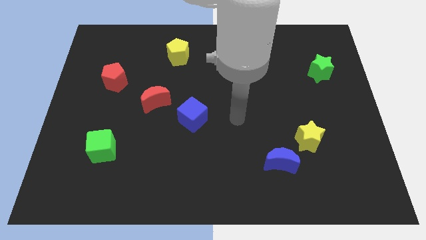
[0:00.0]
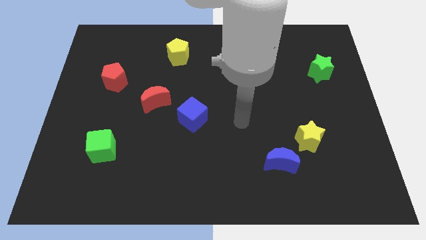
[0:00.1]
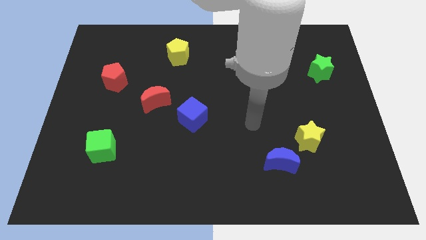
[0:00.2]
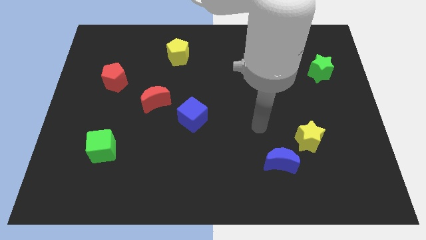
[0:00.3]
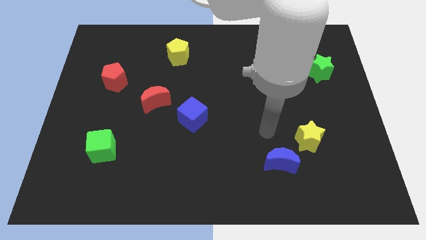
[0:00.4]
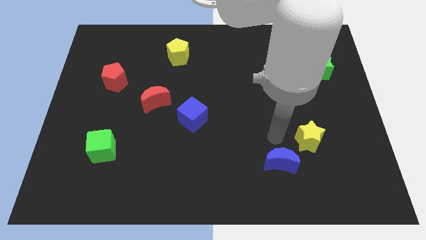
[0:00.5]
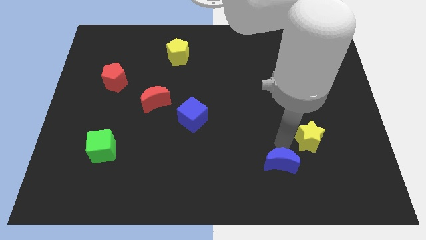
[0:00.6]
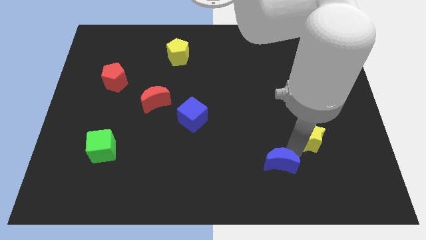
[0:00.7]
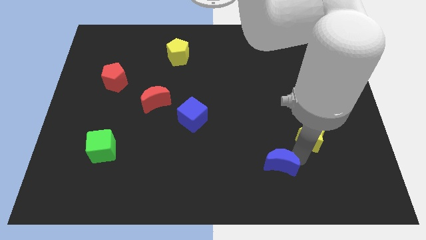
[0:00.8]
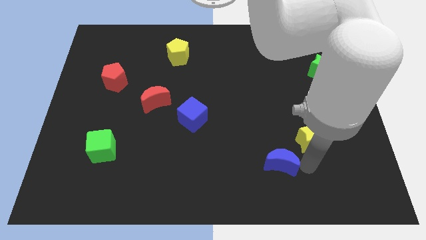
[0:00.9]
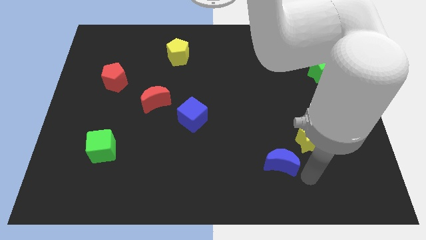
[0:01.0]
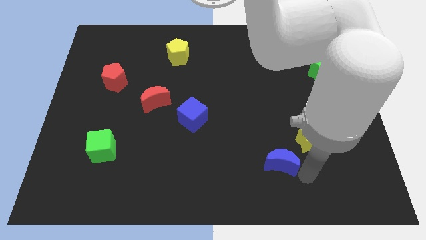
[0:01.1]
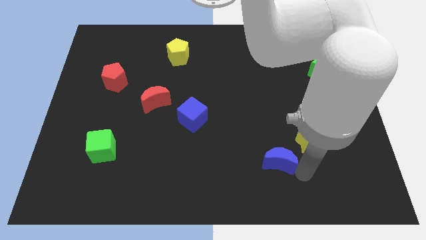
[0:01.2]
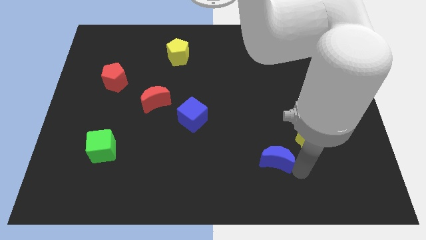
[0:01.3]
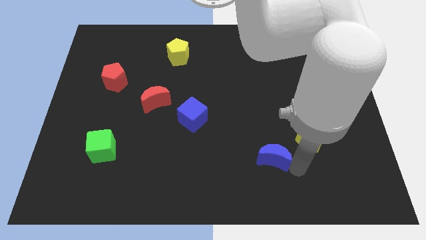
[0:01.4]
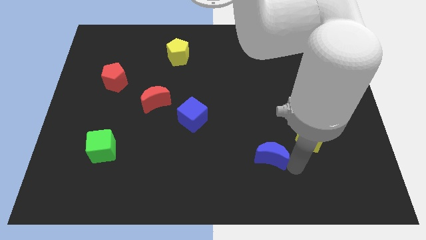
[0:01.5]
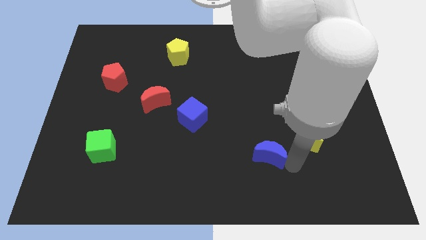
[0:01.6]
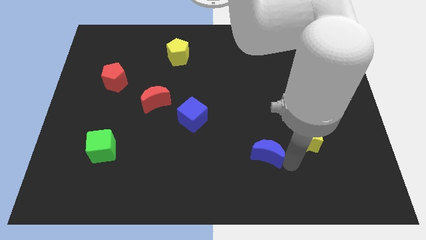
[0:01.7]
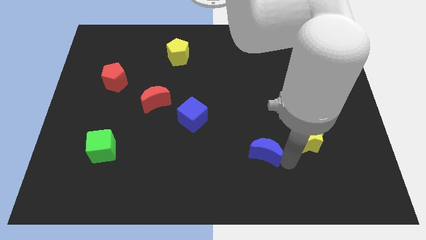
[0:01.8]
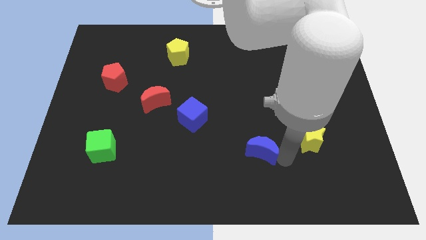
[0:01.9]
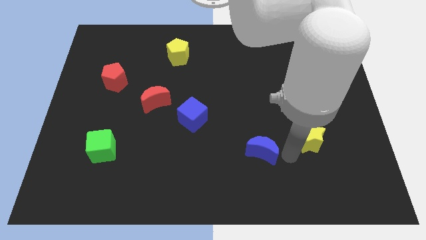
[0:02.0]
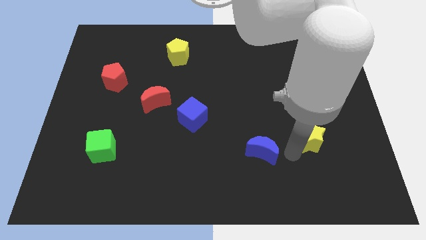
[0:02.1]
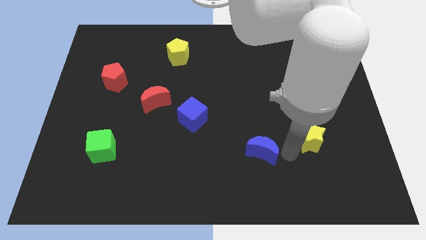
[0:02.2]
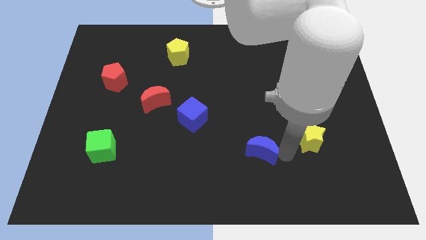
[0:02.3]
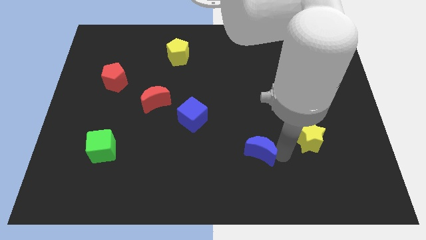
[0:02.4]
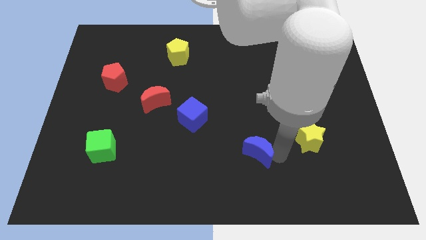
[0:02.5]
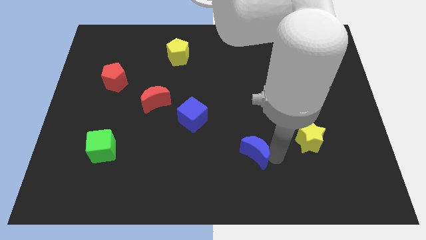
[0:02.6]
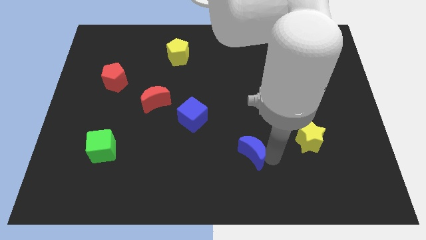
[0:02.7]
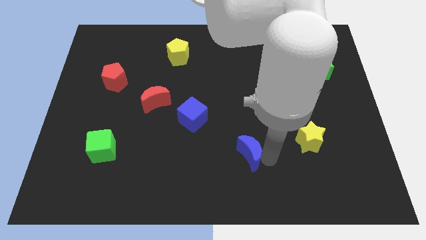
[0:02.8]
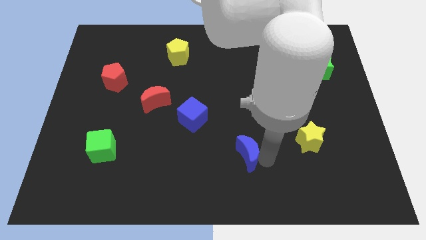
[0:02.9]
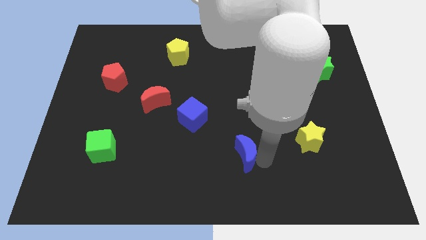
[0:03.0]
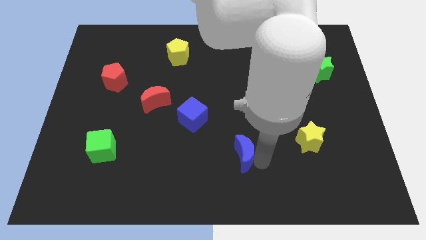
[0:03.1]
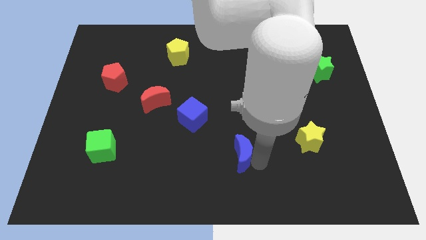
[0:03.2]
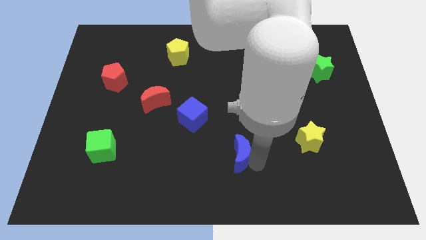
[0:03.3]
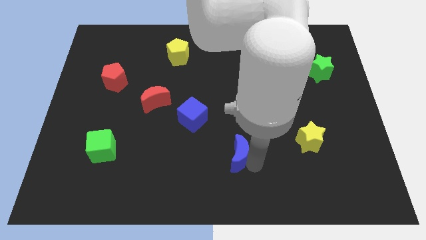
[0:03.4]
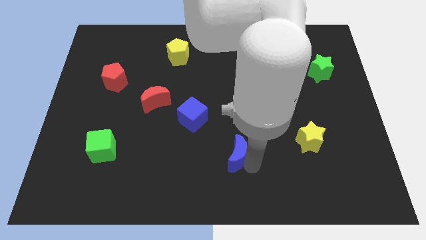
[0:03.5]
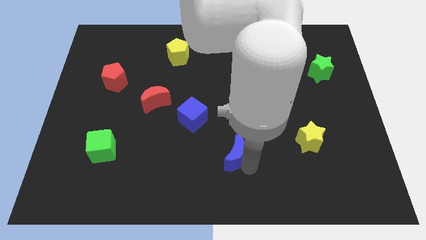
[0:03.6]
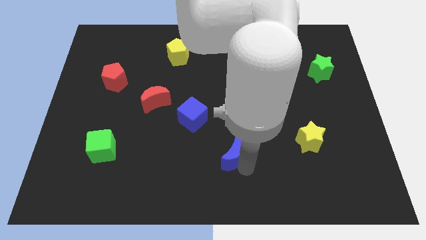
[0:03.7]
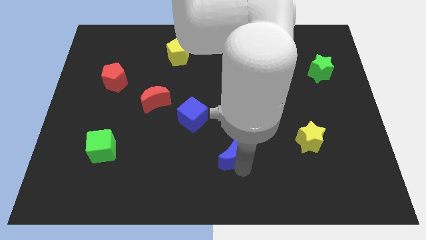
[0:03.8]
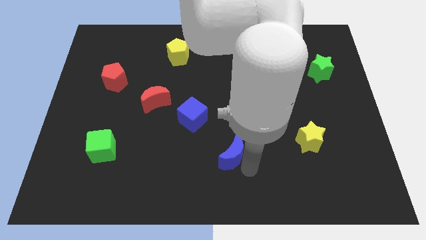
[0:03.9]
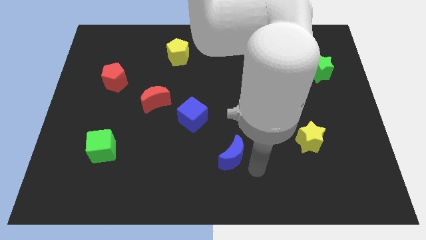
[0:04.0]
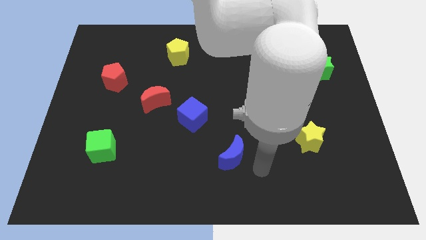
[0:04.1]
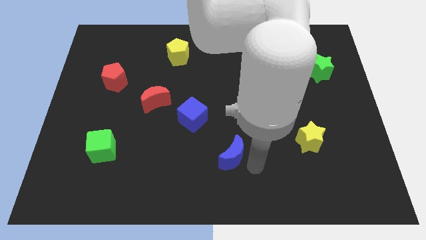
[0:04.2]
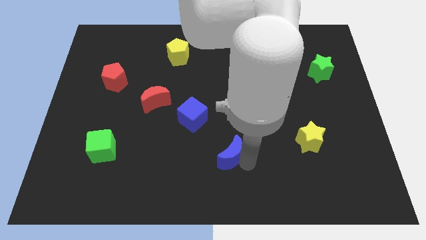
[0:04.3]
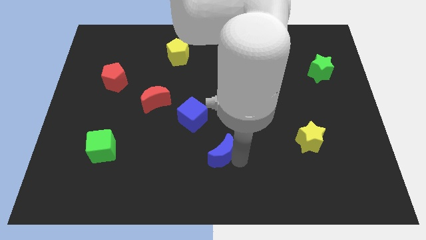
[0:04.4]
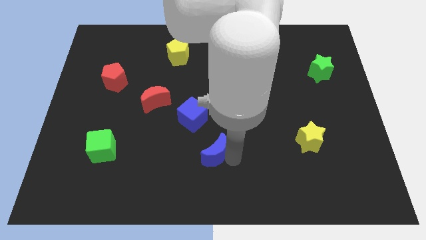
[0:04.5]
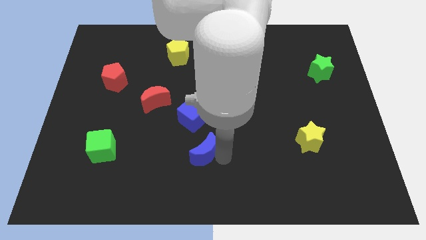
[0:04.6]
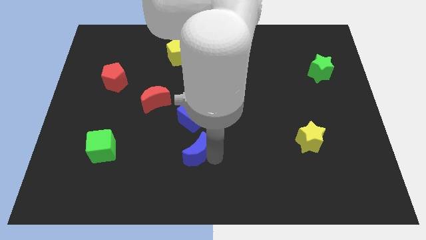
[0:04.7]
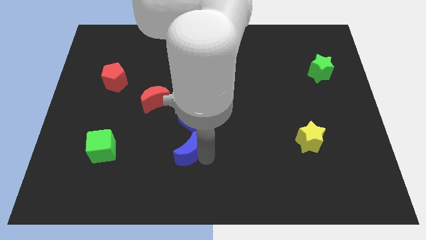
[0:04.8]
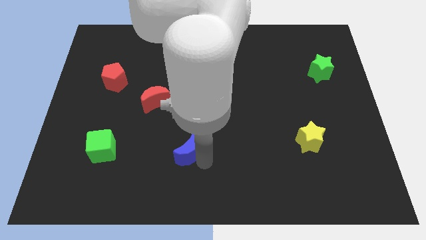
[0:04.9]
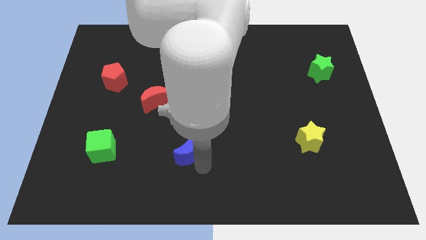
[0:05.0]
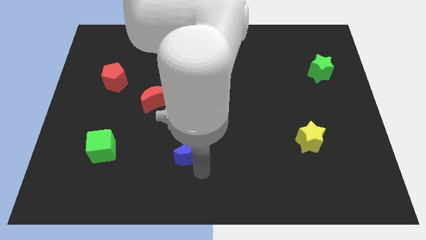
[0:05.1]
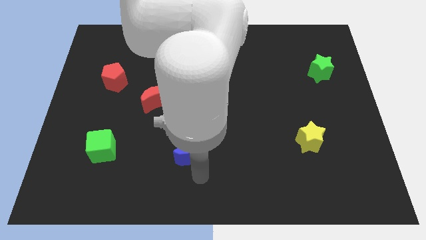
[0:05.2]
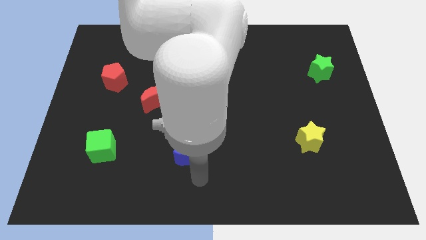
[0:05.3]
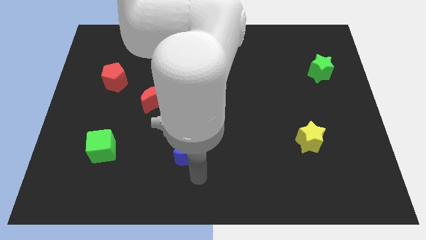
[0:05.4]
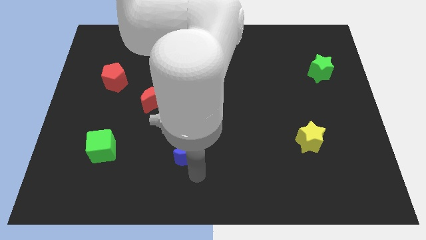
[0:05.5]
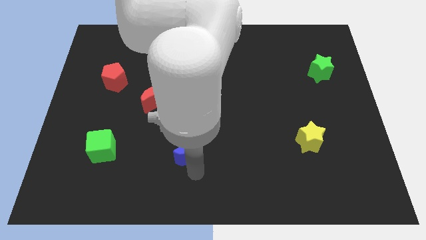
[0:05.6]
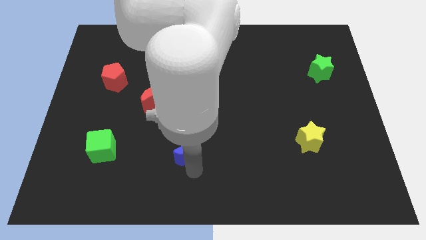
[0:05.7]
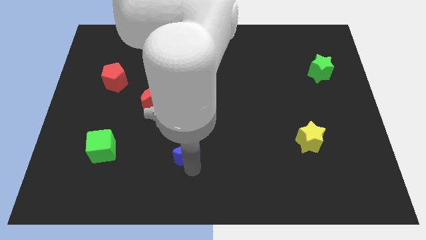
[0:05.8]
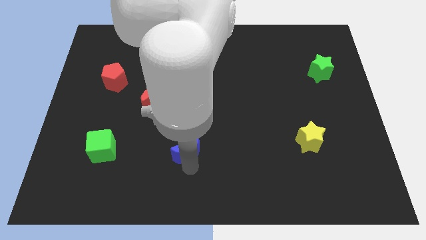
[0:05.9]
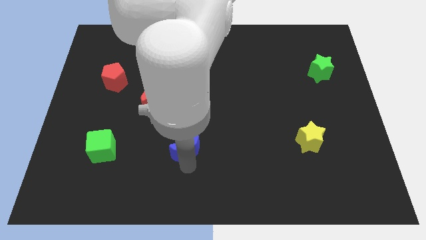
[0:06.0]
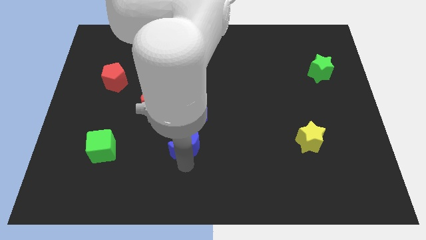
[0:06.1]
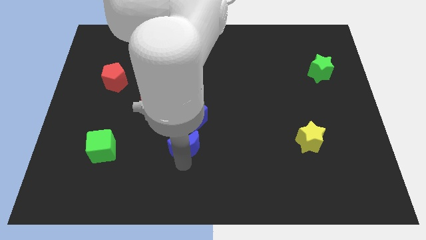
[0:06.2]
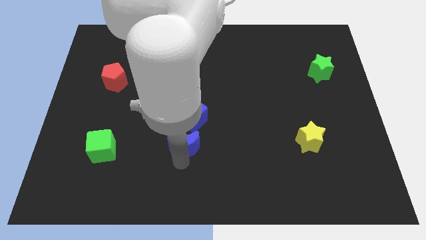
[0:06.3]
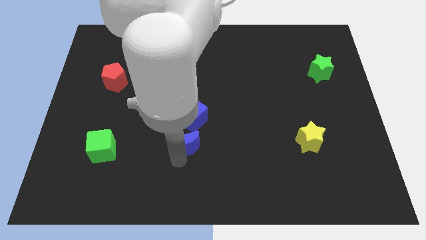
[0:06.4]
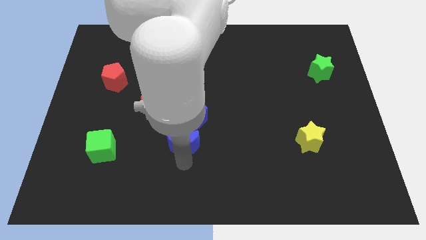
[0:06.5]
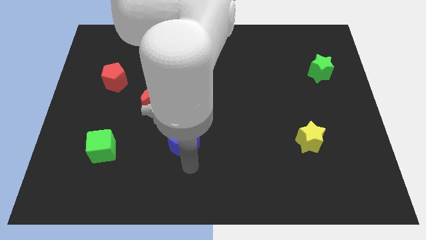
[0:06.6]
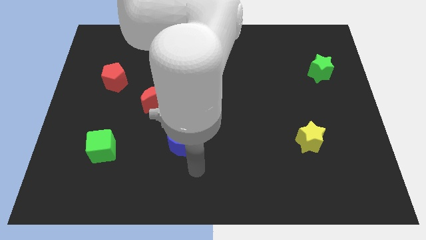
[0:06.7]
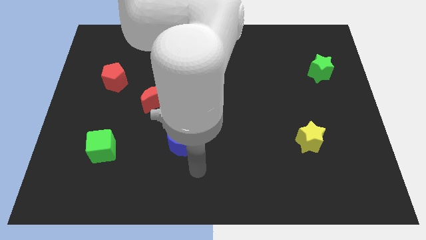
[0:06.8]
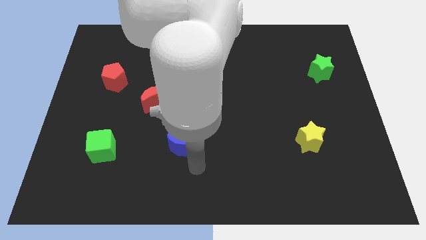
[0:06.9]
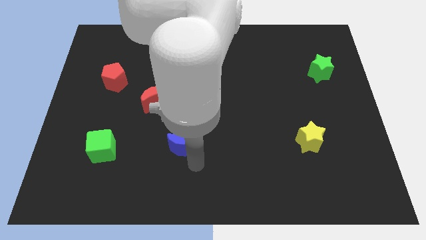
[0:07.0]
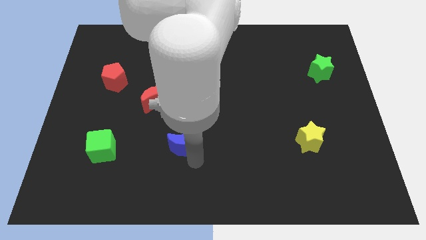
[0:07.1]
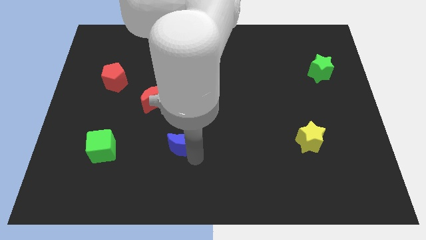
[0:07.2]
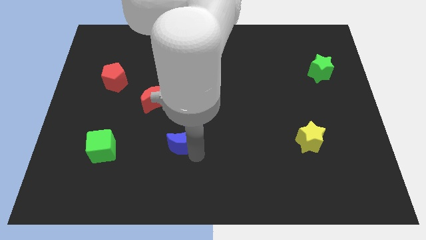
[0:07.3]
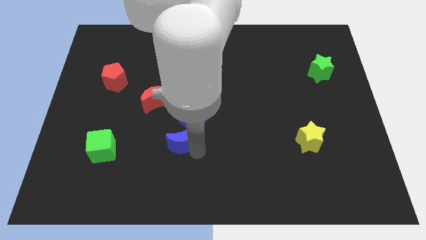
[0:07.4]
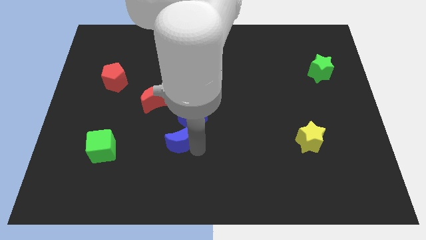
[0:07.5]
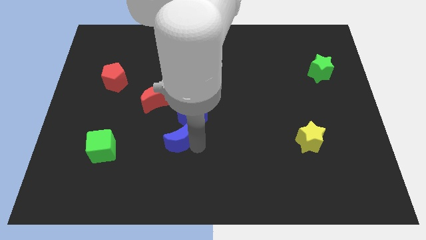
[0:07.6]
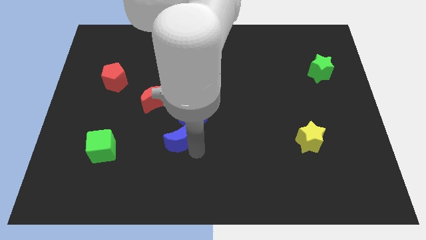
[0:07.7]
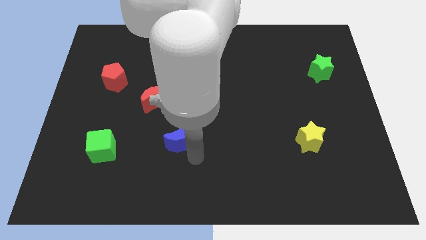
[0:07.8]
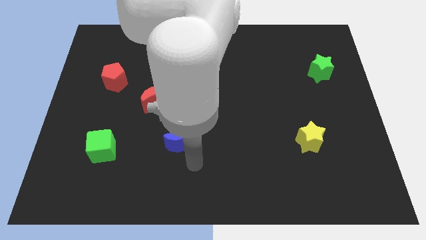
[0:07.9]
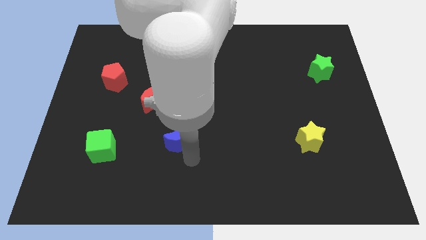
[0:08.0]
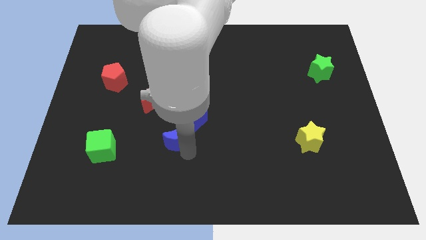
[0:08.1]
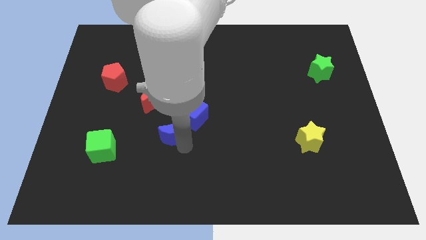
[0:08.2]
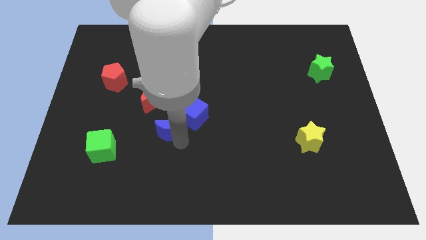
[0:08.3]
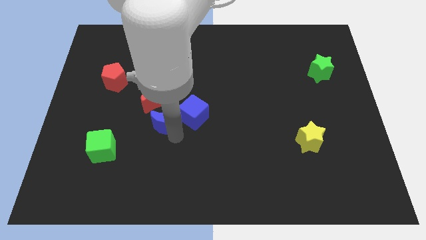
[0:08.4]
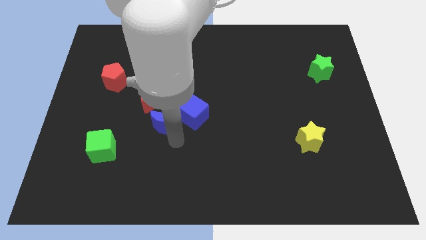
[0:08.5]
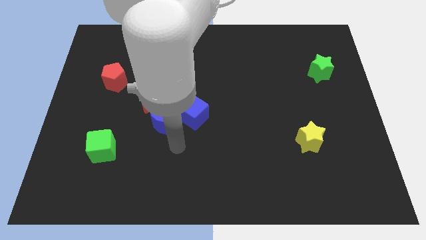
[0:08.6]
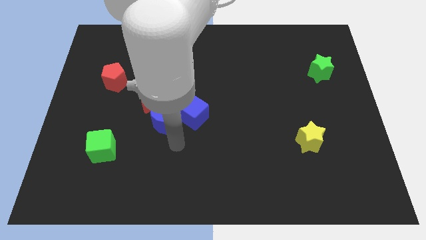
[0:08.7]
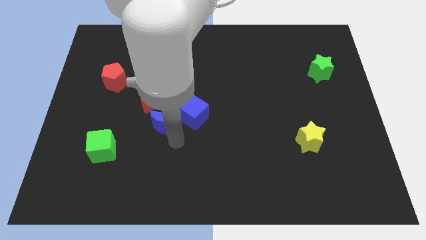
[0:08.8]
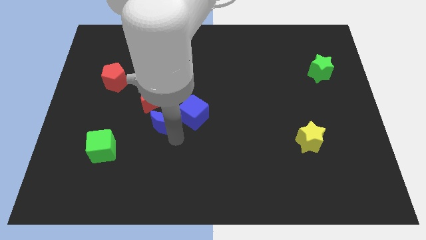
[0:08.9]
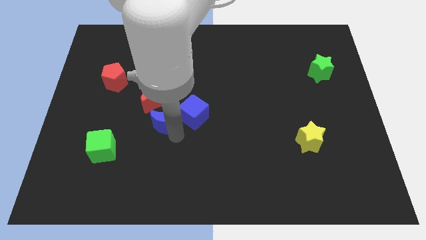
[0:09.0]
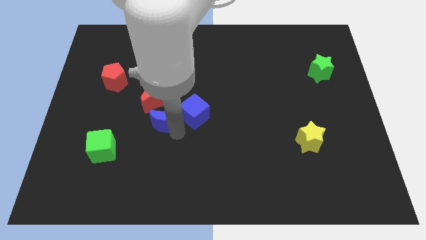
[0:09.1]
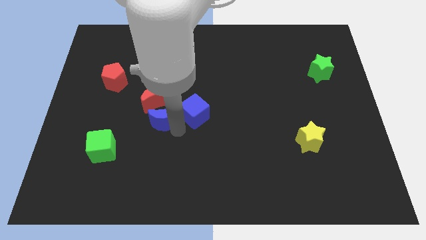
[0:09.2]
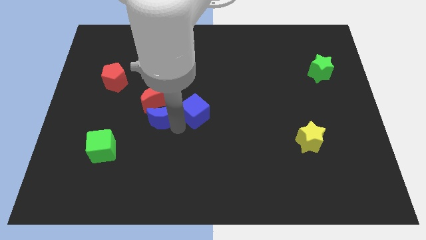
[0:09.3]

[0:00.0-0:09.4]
push the blue moon close to the red moon
